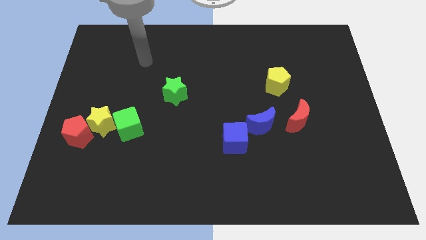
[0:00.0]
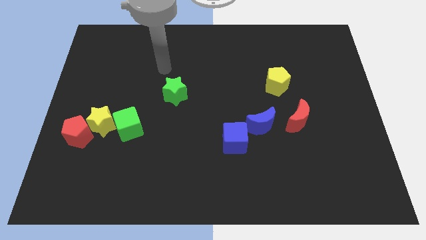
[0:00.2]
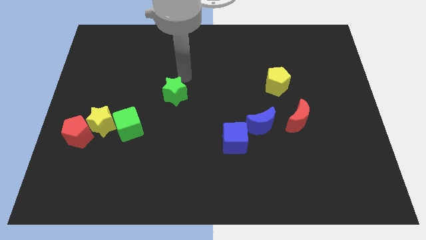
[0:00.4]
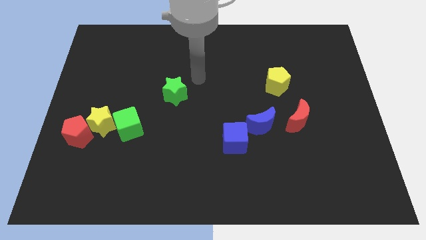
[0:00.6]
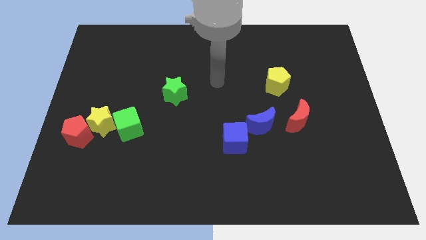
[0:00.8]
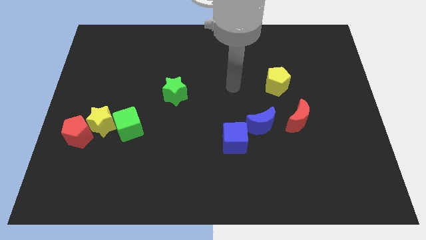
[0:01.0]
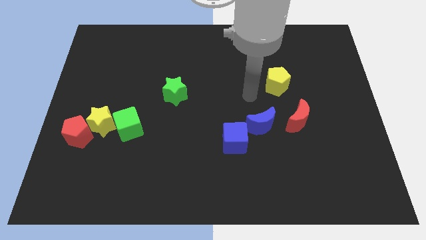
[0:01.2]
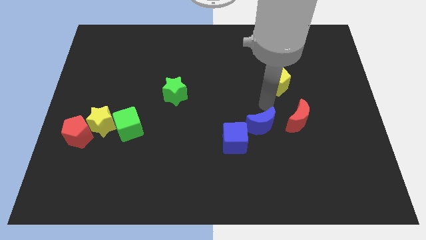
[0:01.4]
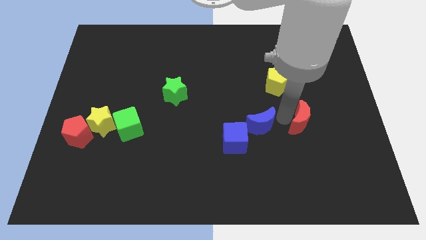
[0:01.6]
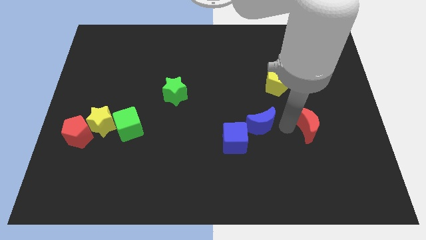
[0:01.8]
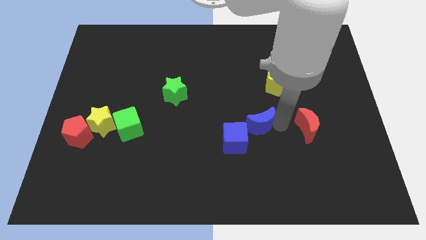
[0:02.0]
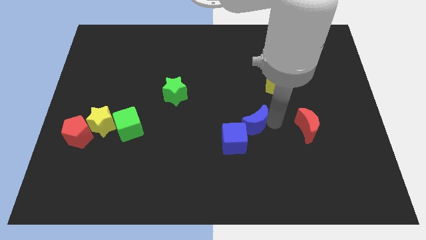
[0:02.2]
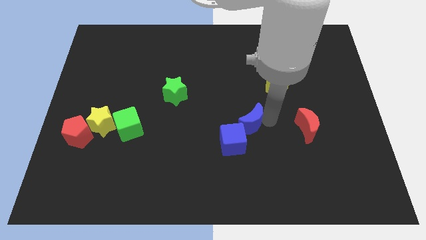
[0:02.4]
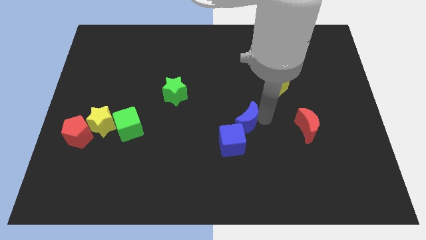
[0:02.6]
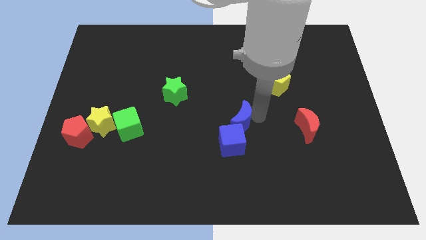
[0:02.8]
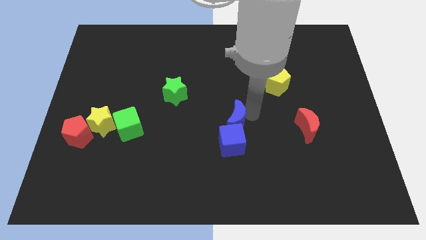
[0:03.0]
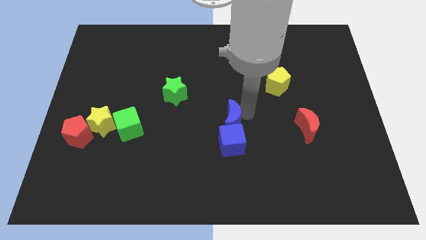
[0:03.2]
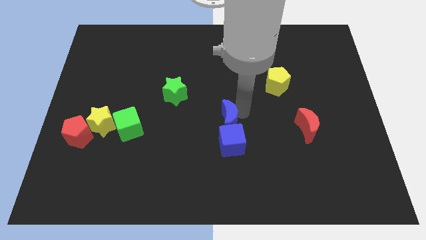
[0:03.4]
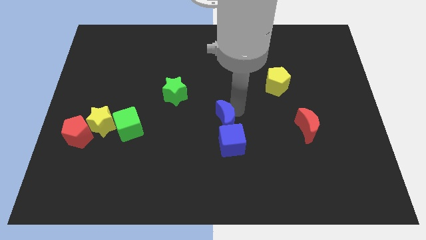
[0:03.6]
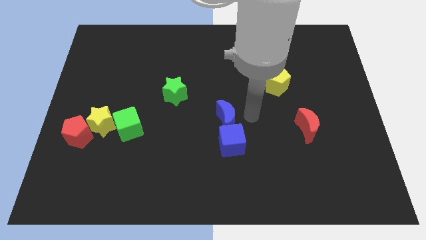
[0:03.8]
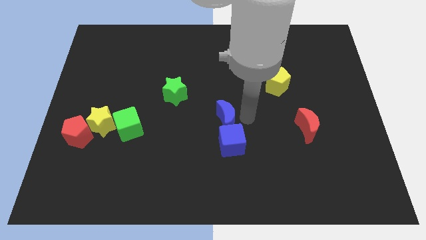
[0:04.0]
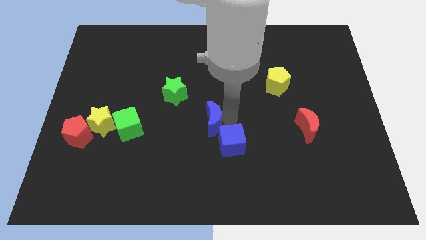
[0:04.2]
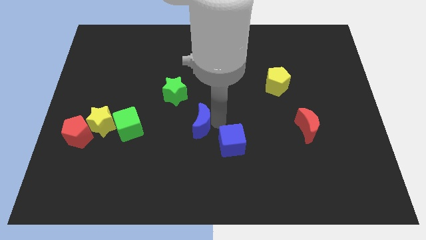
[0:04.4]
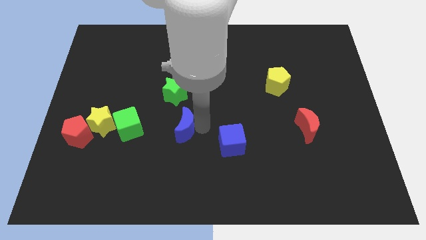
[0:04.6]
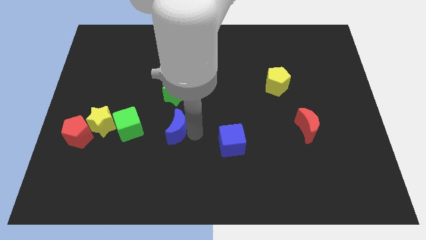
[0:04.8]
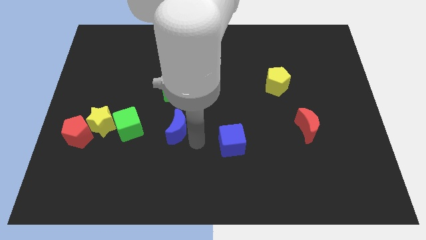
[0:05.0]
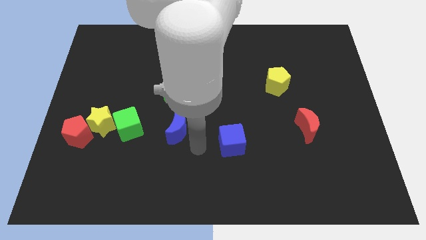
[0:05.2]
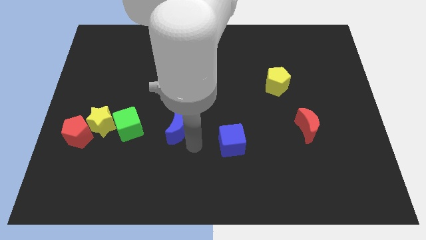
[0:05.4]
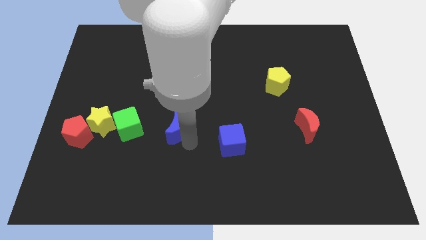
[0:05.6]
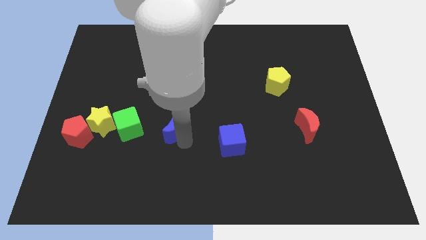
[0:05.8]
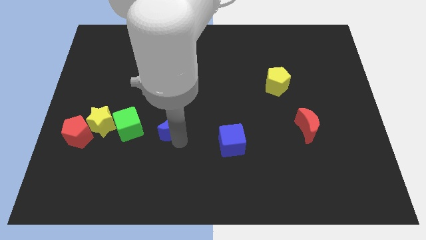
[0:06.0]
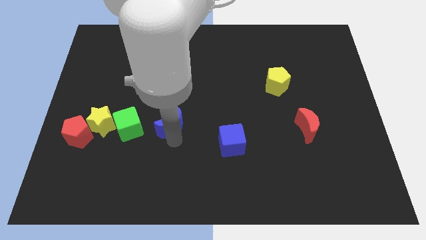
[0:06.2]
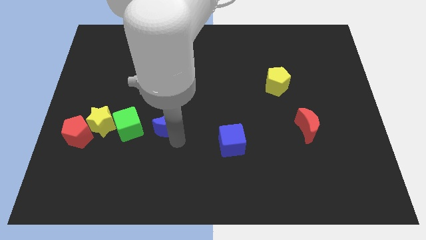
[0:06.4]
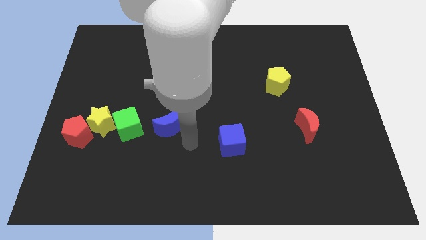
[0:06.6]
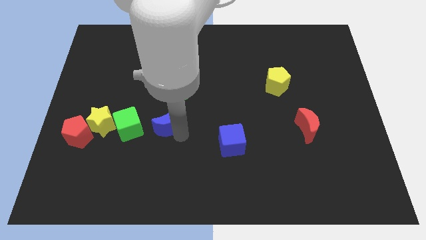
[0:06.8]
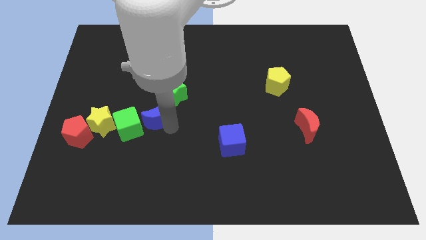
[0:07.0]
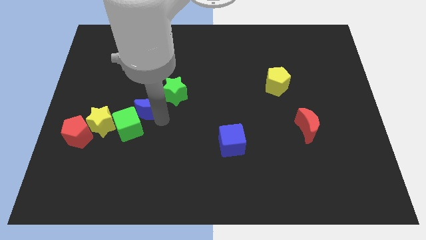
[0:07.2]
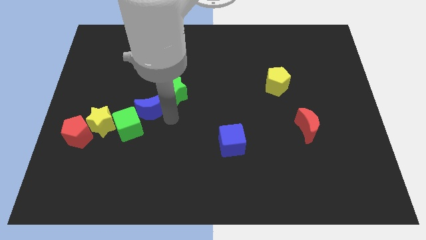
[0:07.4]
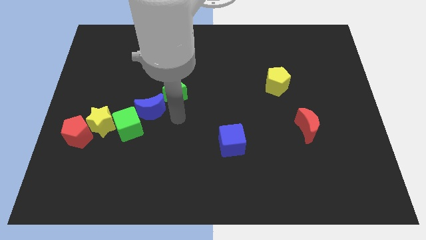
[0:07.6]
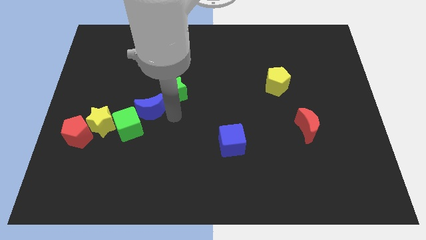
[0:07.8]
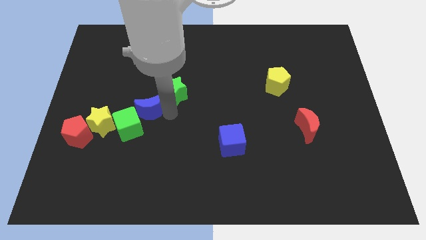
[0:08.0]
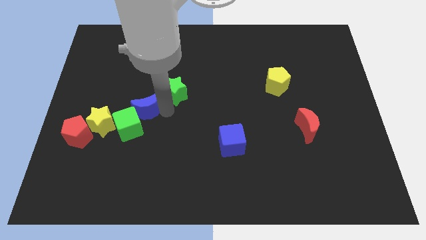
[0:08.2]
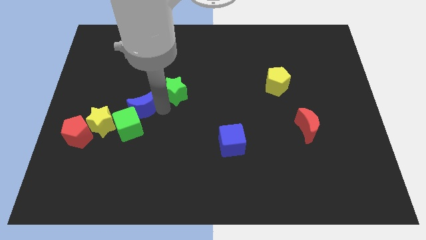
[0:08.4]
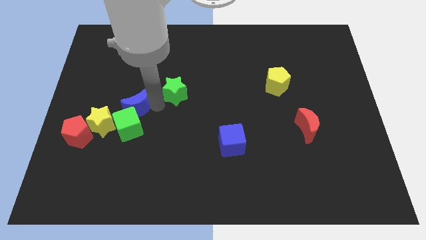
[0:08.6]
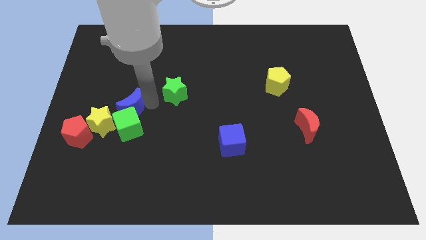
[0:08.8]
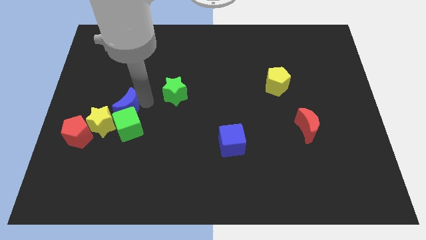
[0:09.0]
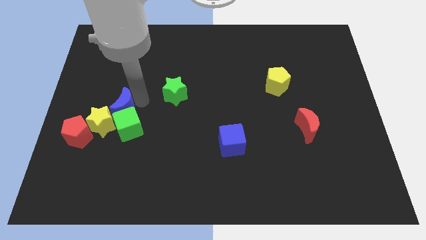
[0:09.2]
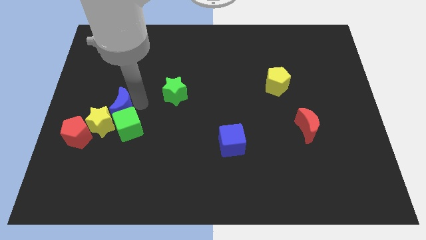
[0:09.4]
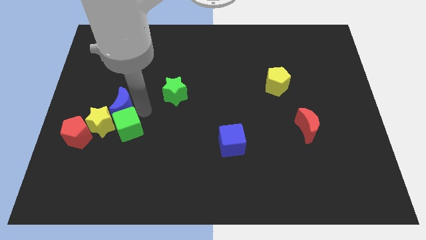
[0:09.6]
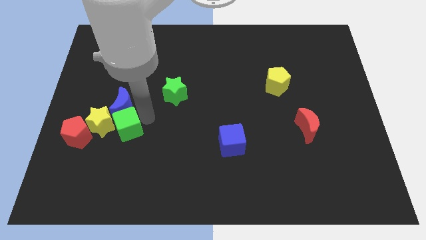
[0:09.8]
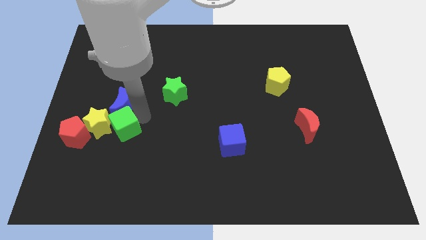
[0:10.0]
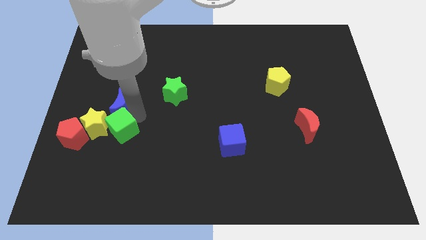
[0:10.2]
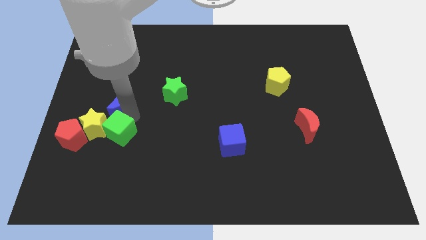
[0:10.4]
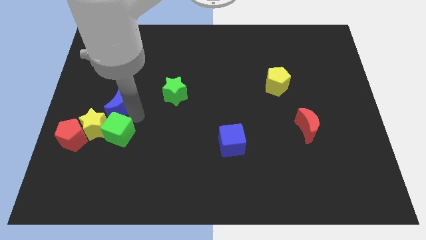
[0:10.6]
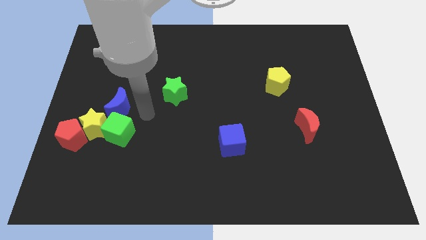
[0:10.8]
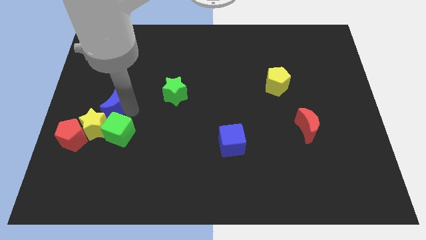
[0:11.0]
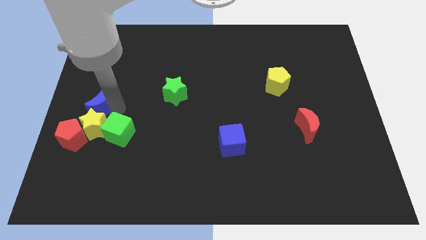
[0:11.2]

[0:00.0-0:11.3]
push the blue moon to the left side of the board

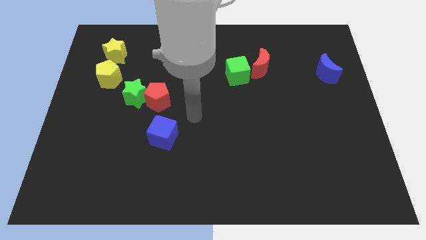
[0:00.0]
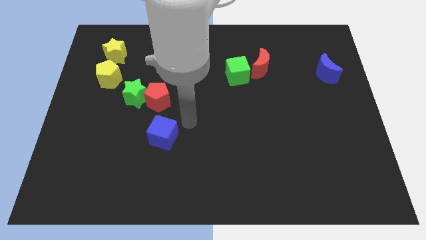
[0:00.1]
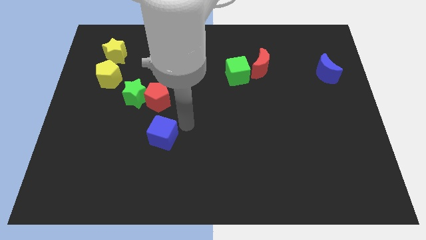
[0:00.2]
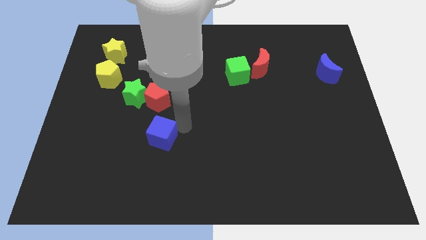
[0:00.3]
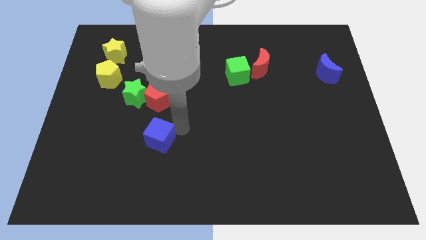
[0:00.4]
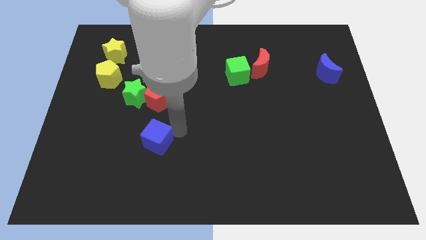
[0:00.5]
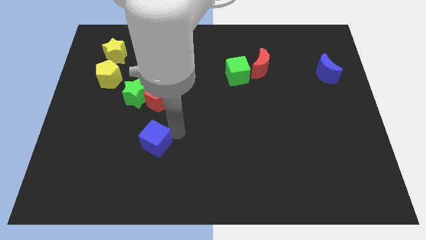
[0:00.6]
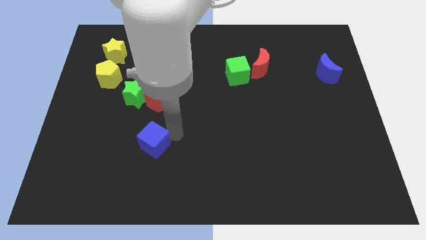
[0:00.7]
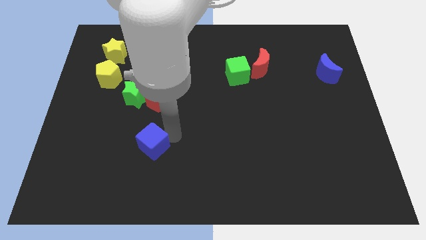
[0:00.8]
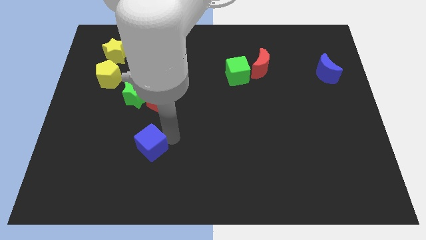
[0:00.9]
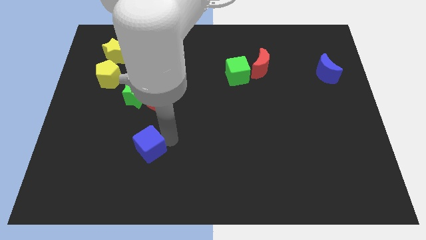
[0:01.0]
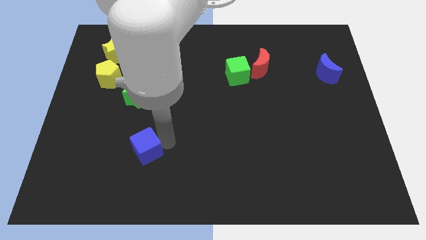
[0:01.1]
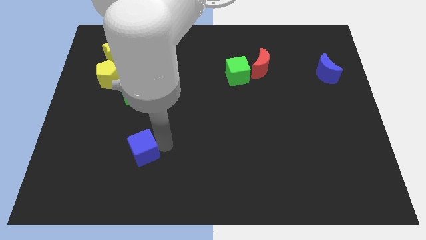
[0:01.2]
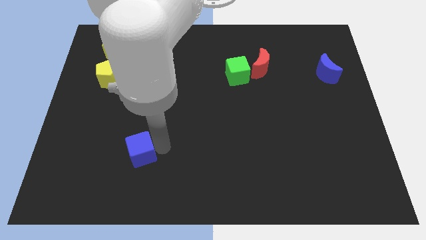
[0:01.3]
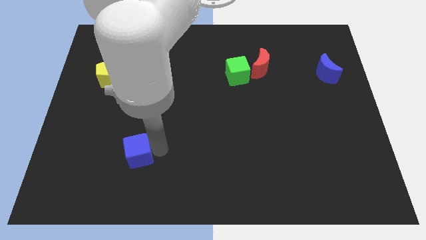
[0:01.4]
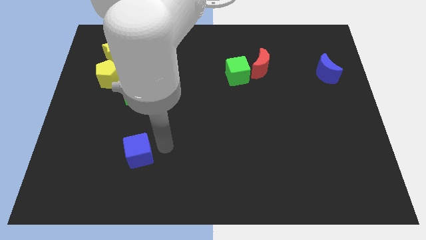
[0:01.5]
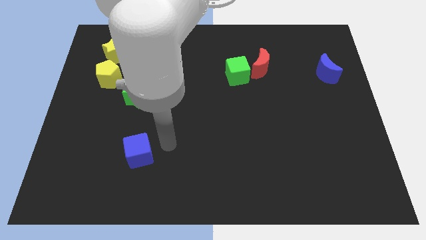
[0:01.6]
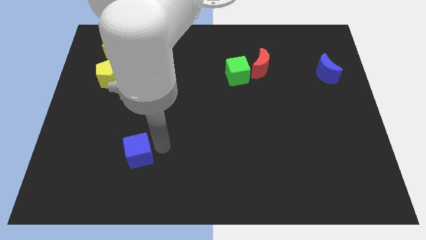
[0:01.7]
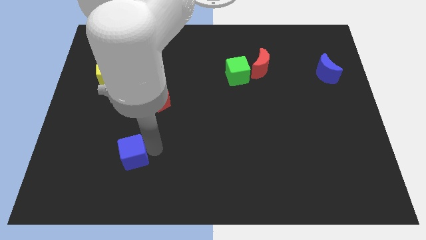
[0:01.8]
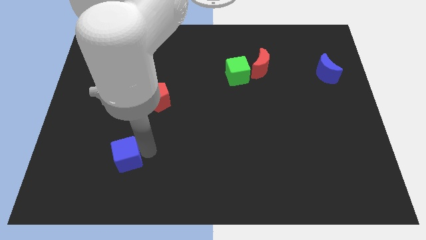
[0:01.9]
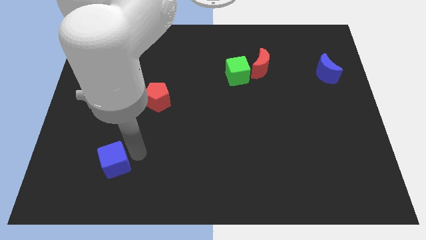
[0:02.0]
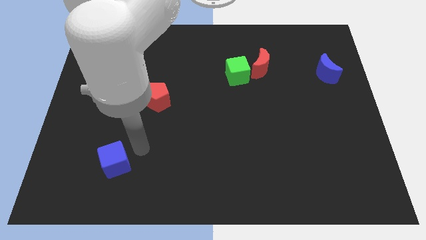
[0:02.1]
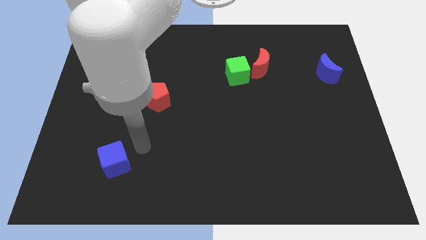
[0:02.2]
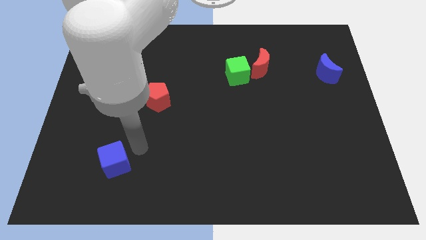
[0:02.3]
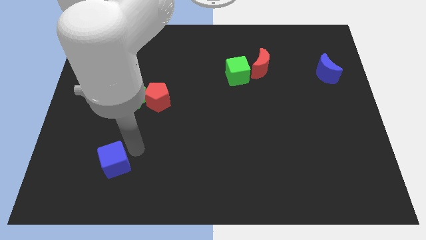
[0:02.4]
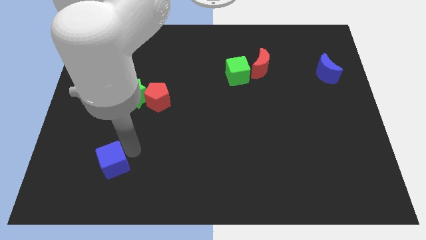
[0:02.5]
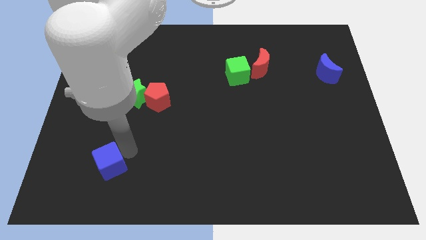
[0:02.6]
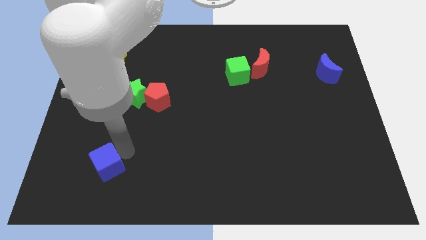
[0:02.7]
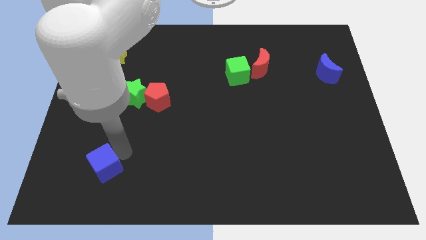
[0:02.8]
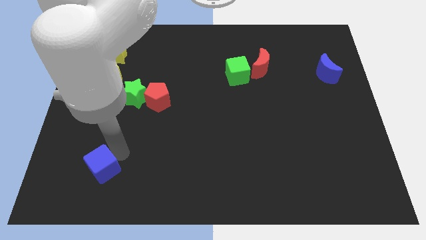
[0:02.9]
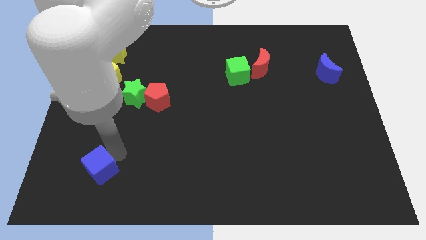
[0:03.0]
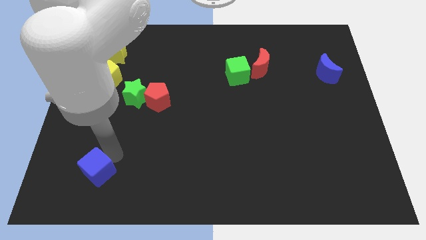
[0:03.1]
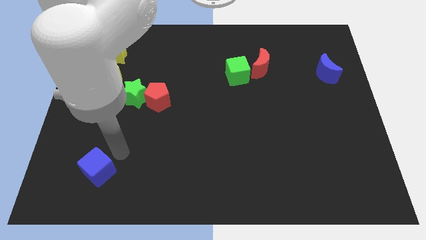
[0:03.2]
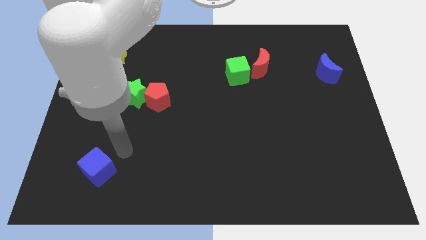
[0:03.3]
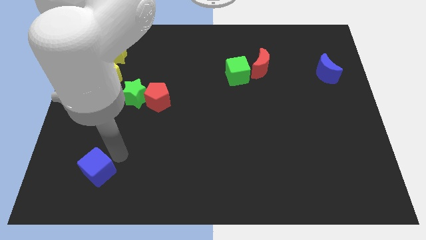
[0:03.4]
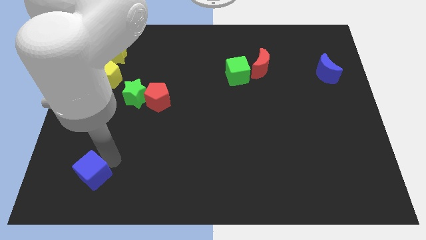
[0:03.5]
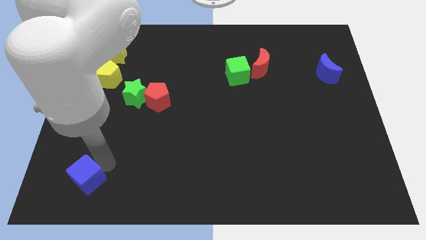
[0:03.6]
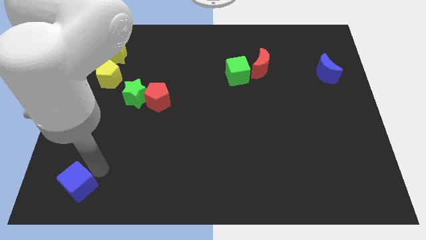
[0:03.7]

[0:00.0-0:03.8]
move the blue cube to the bottom left
